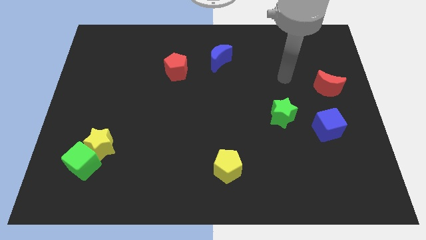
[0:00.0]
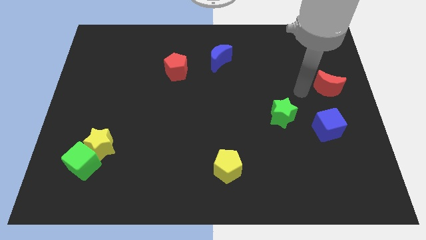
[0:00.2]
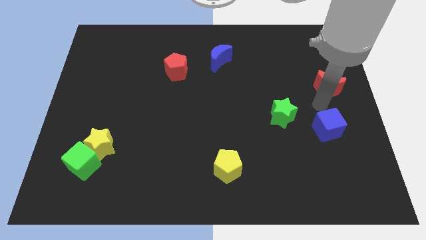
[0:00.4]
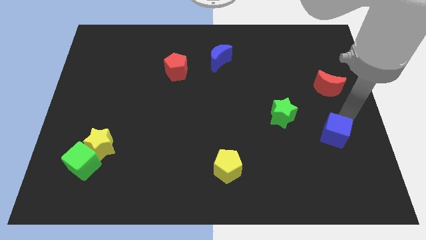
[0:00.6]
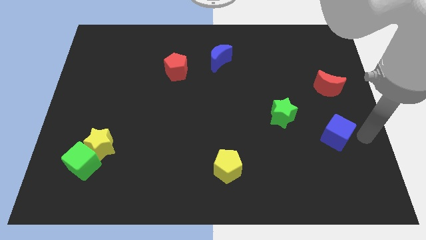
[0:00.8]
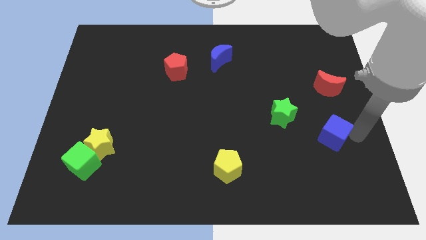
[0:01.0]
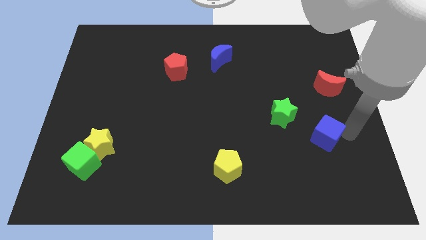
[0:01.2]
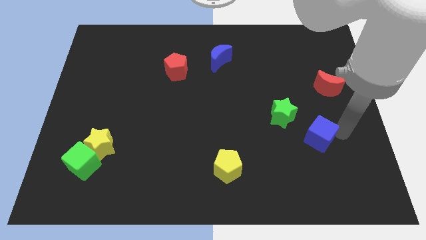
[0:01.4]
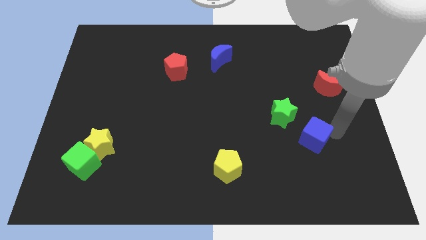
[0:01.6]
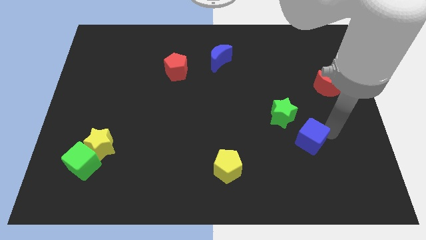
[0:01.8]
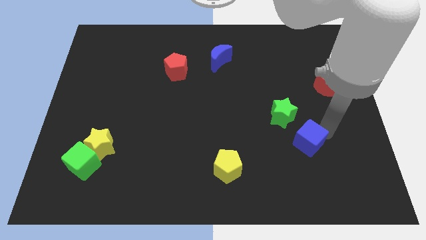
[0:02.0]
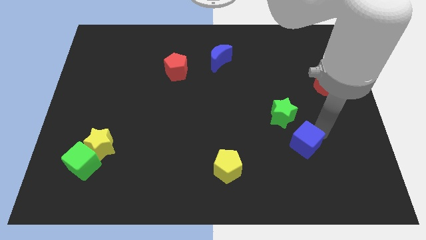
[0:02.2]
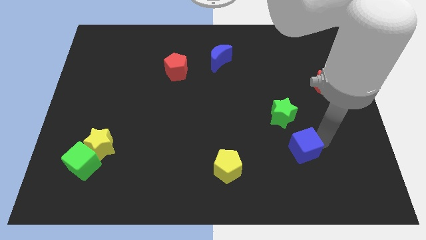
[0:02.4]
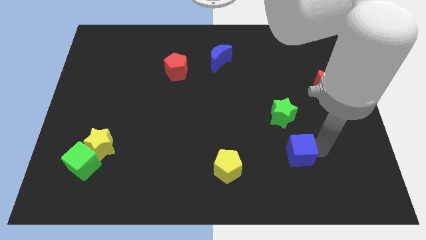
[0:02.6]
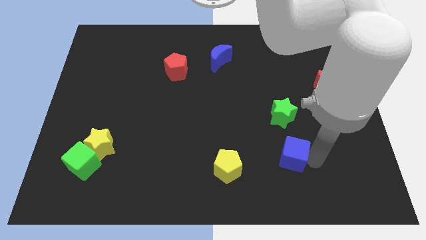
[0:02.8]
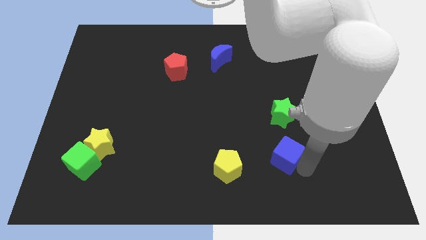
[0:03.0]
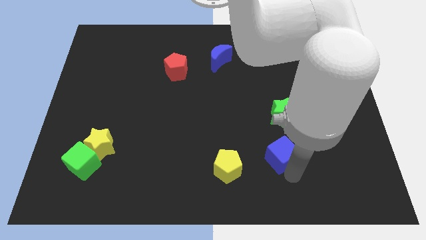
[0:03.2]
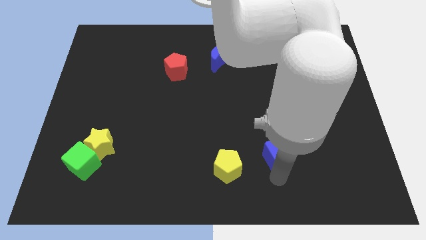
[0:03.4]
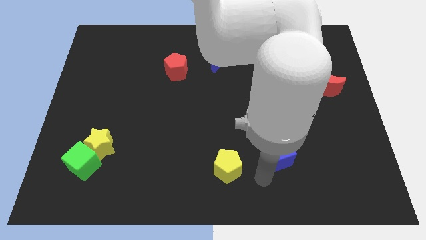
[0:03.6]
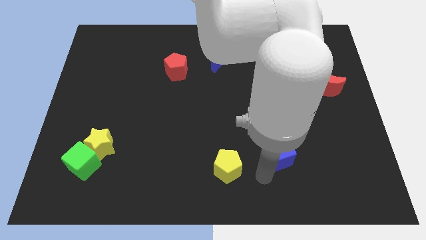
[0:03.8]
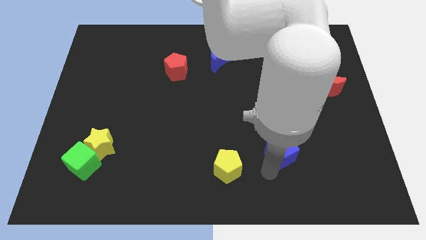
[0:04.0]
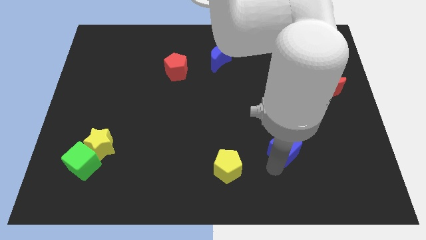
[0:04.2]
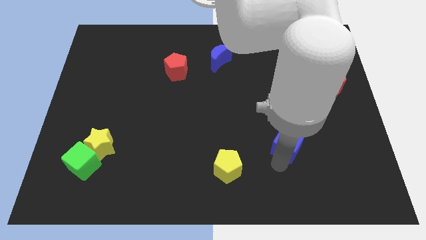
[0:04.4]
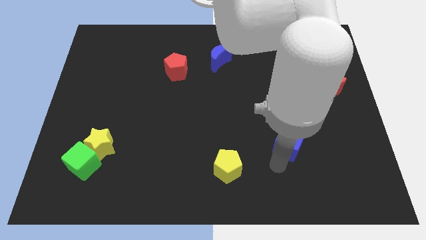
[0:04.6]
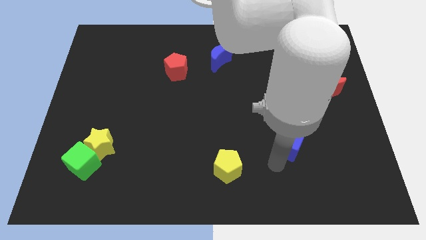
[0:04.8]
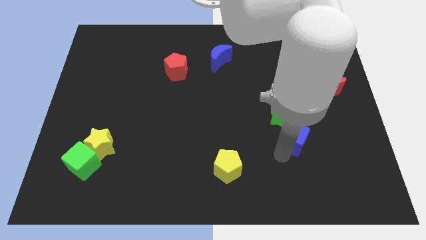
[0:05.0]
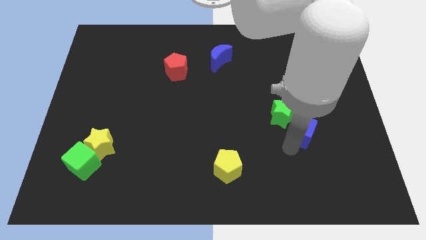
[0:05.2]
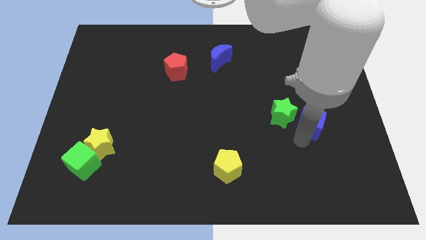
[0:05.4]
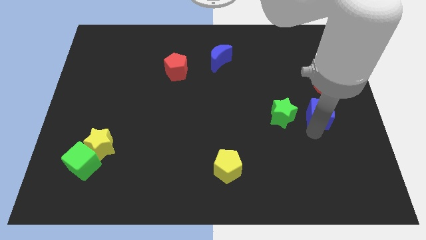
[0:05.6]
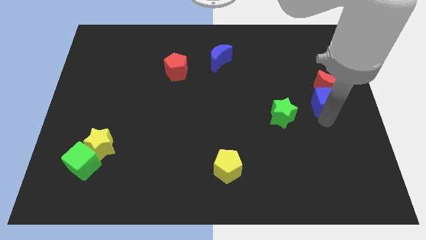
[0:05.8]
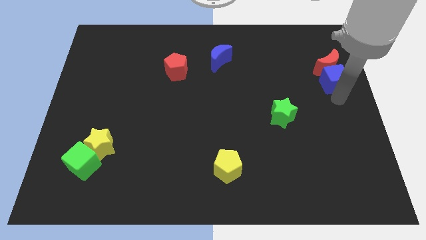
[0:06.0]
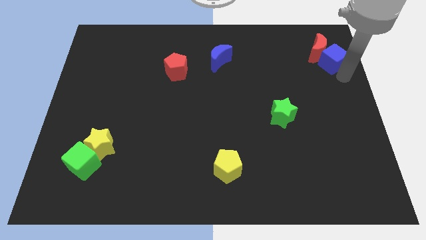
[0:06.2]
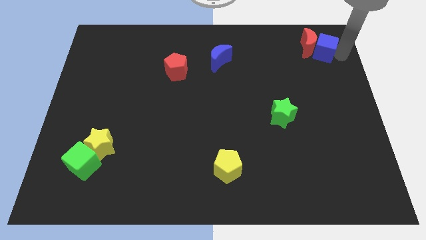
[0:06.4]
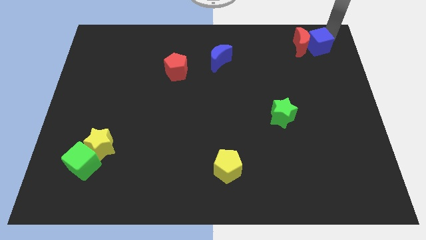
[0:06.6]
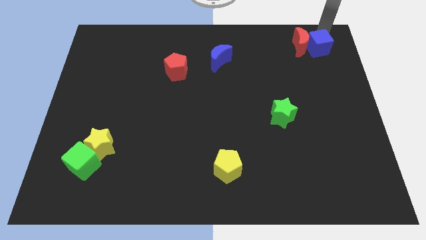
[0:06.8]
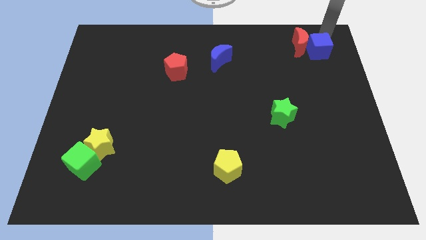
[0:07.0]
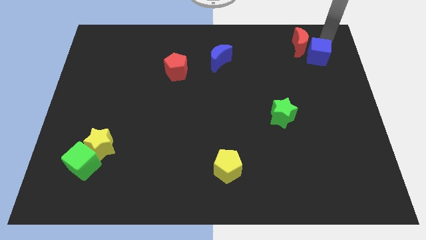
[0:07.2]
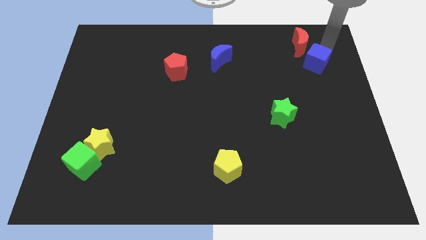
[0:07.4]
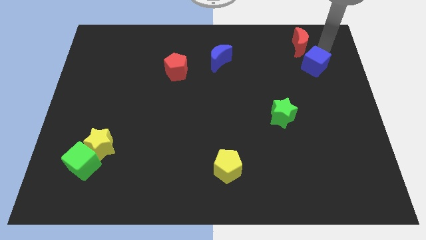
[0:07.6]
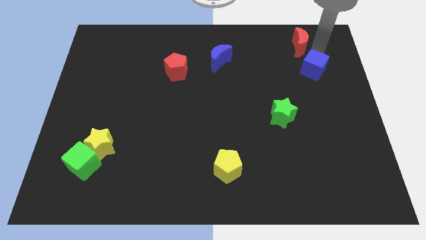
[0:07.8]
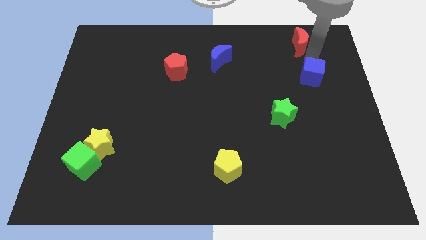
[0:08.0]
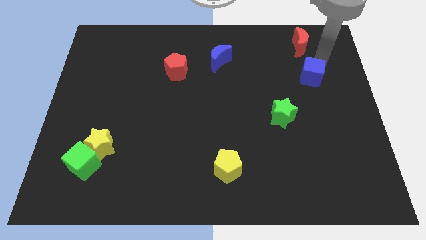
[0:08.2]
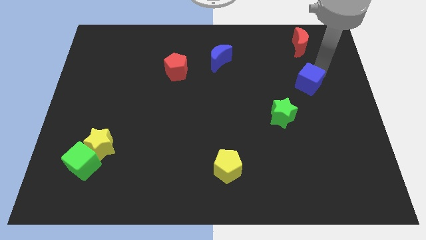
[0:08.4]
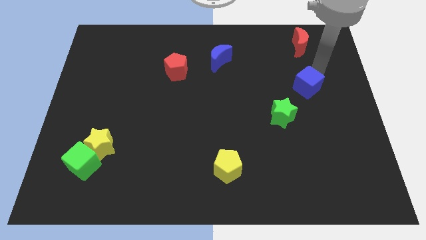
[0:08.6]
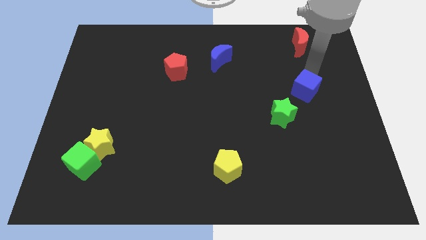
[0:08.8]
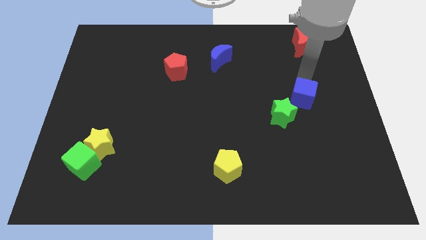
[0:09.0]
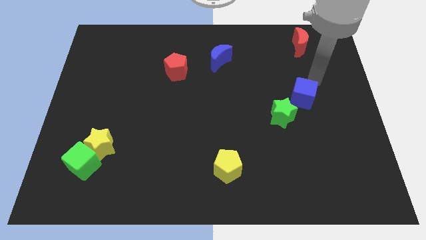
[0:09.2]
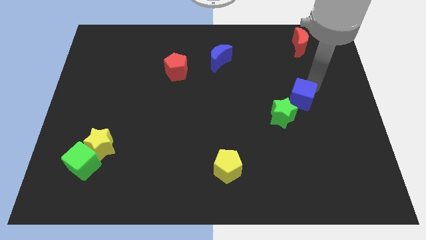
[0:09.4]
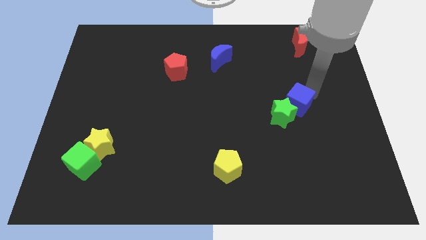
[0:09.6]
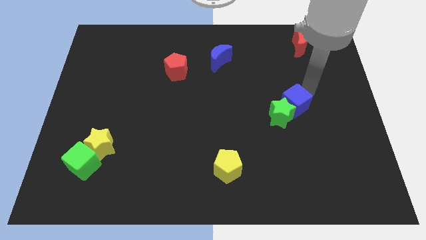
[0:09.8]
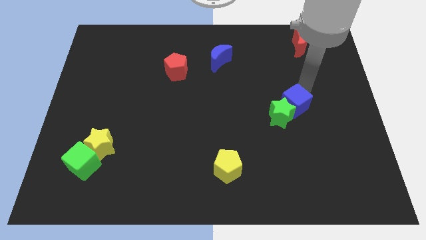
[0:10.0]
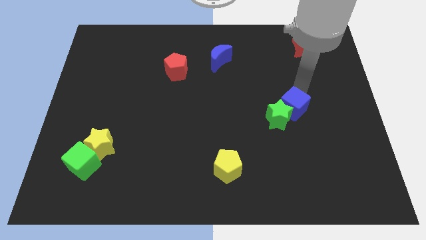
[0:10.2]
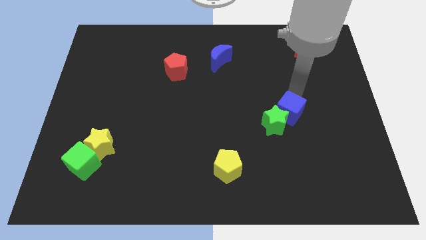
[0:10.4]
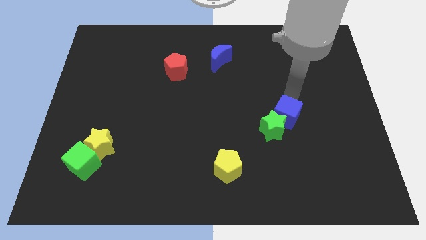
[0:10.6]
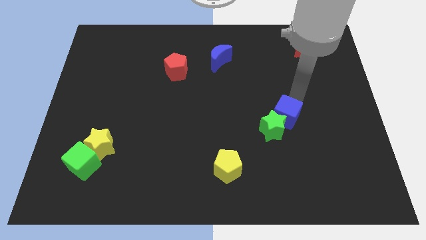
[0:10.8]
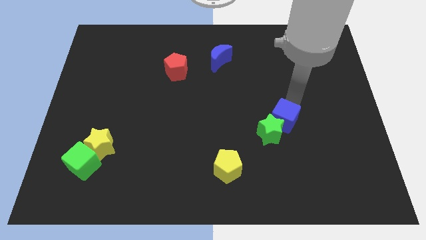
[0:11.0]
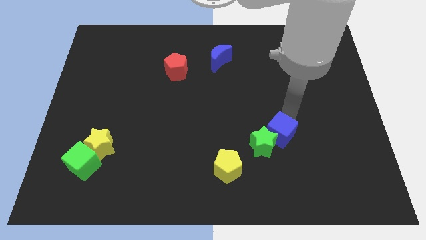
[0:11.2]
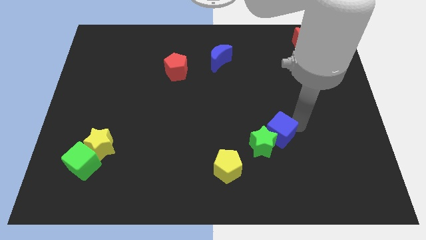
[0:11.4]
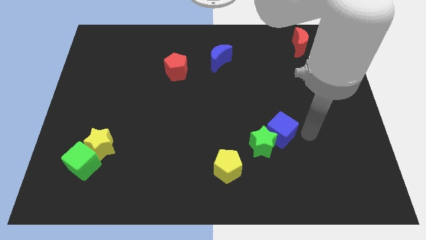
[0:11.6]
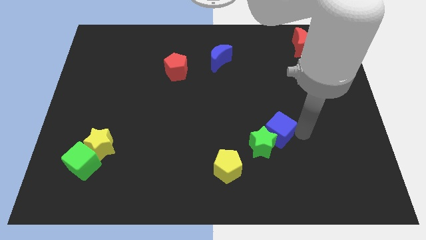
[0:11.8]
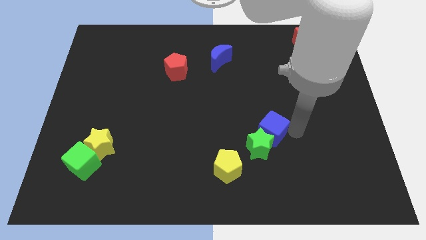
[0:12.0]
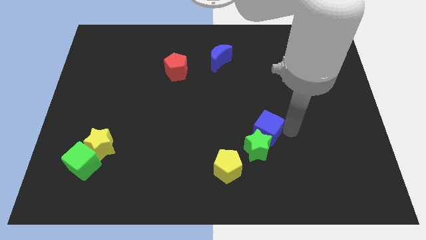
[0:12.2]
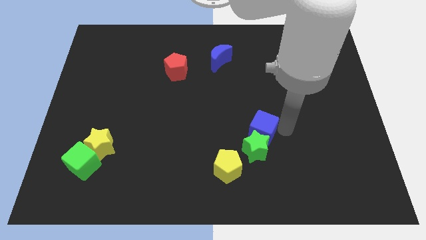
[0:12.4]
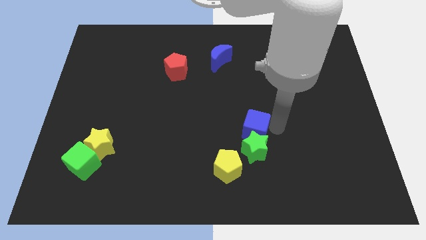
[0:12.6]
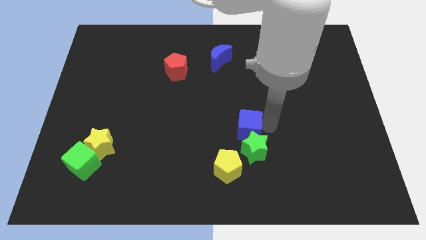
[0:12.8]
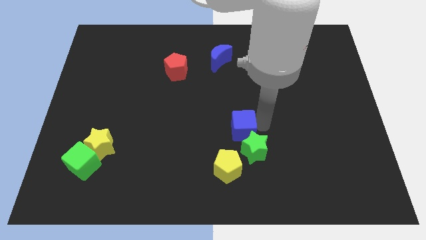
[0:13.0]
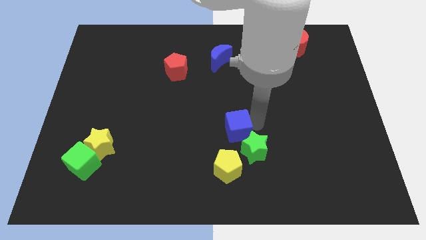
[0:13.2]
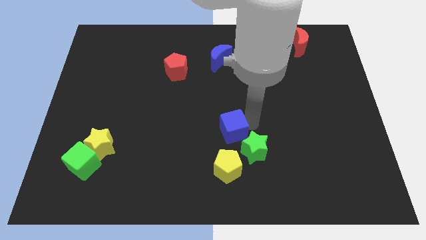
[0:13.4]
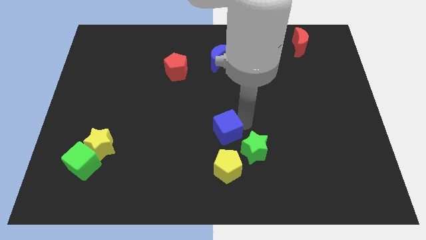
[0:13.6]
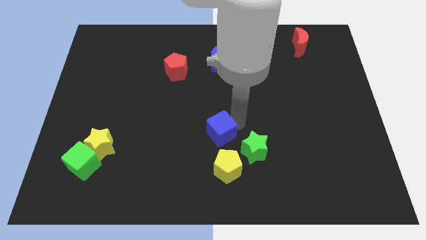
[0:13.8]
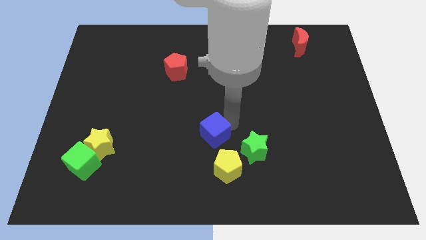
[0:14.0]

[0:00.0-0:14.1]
push the blue cube to the top left of the yellow pentagon
